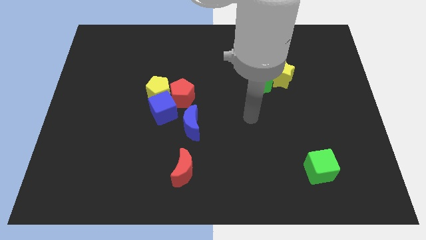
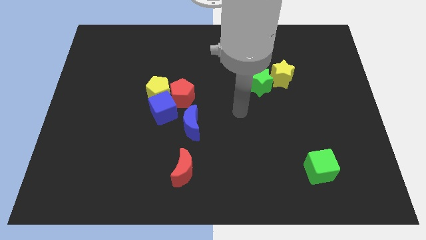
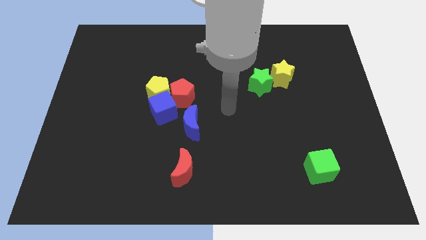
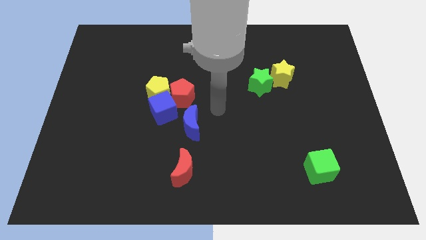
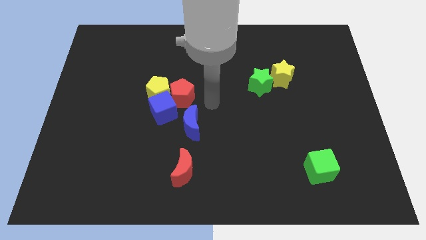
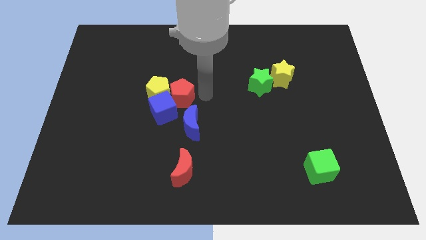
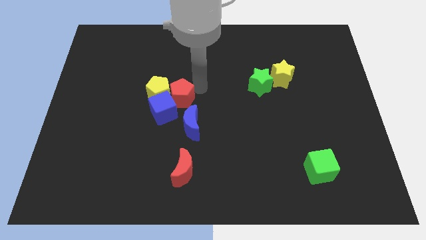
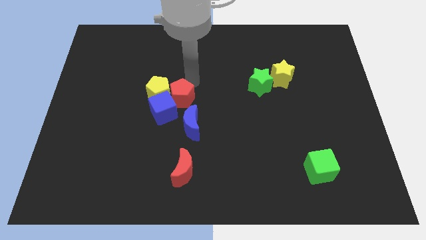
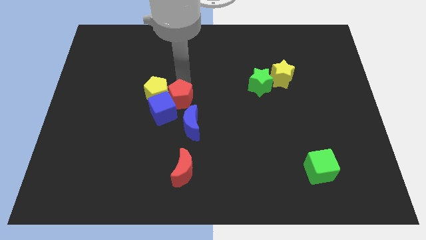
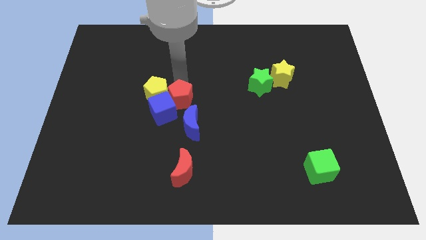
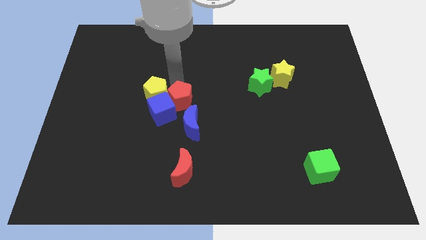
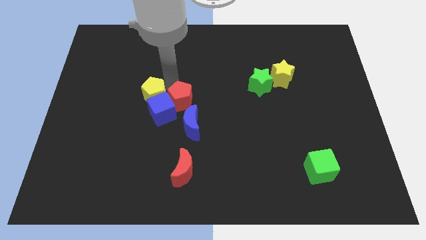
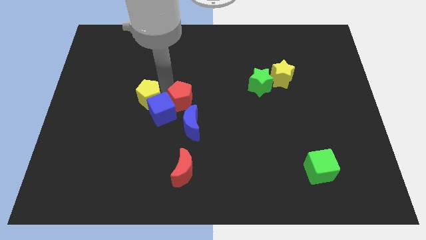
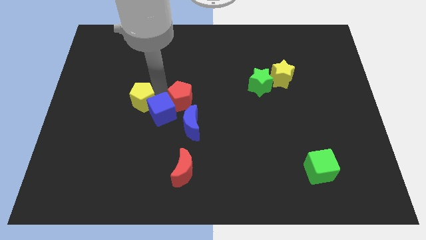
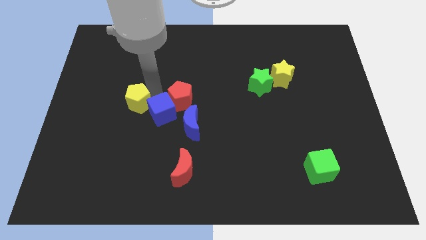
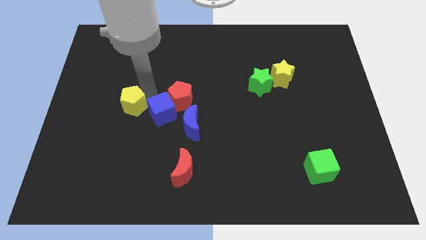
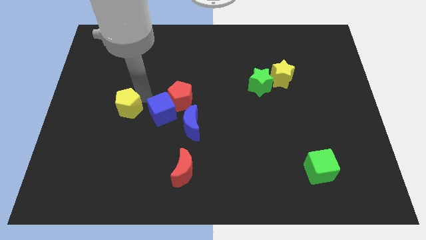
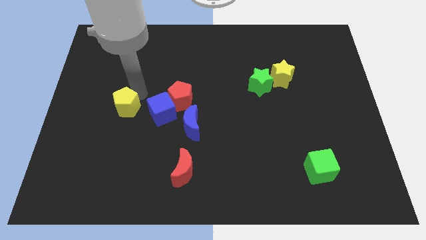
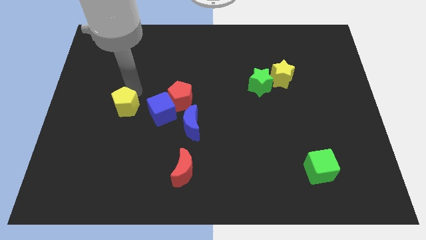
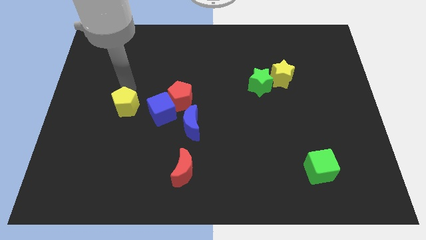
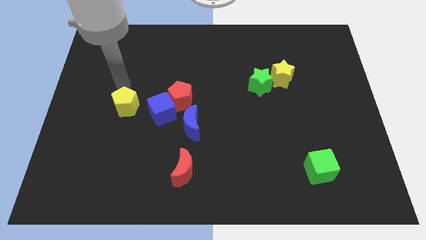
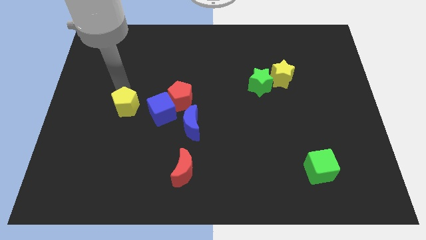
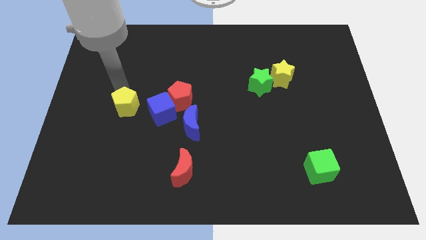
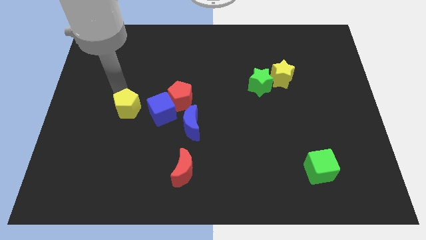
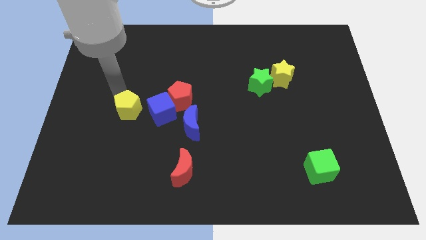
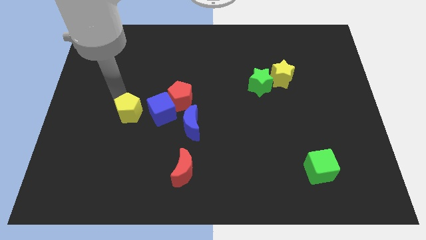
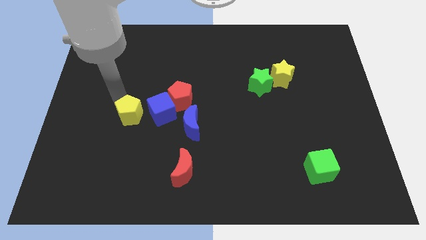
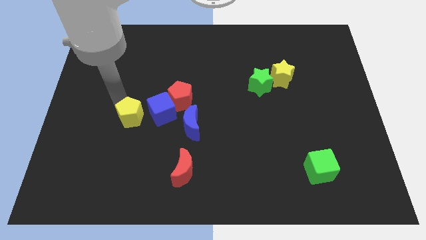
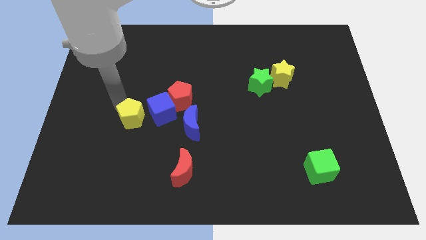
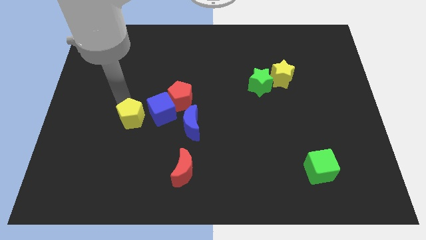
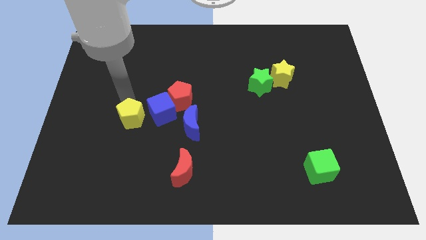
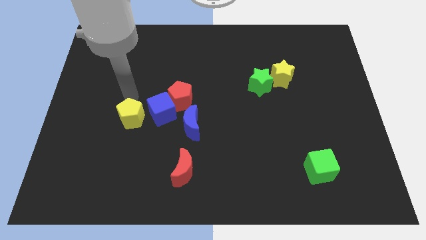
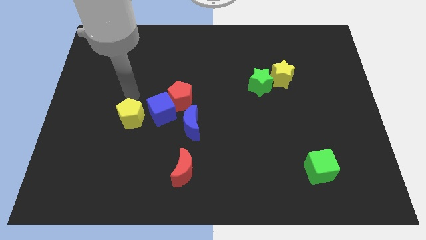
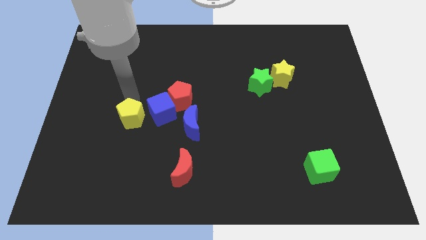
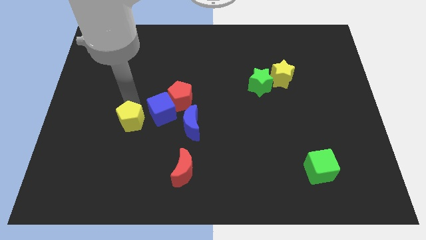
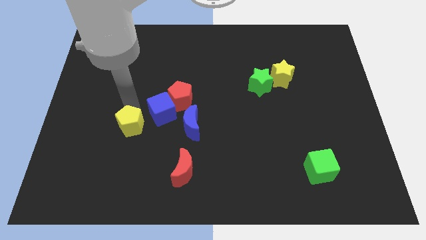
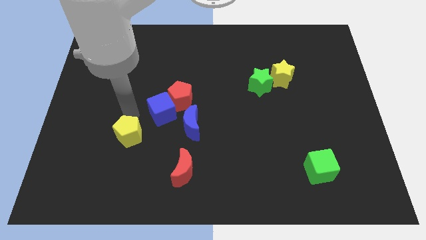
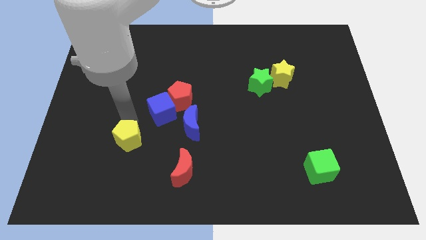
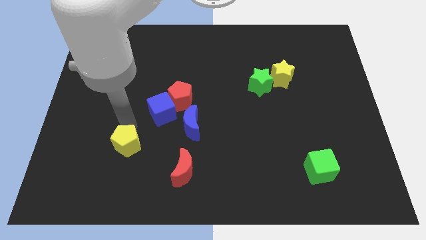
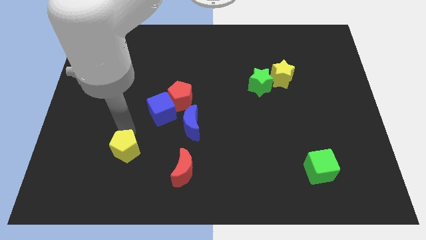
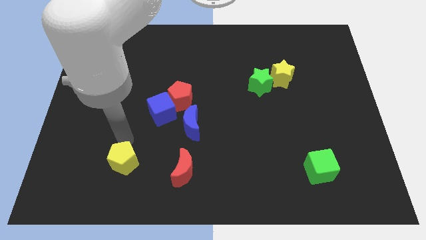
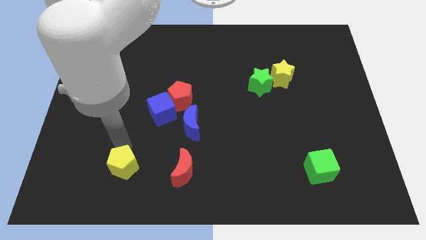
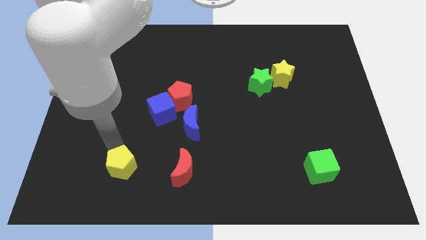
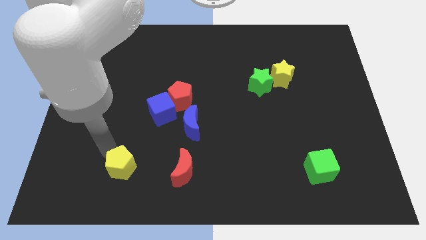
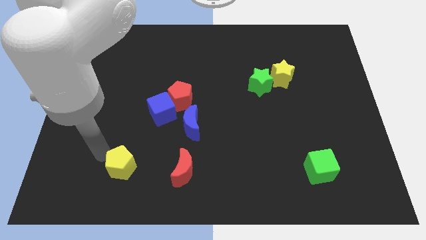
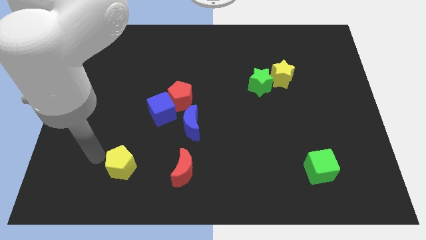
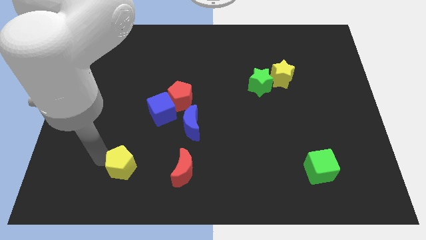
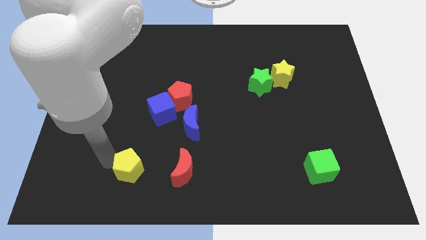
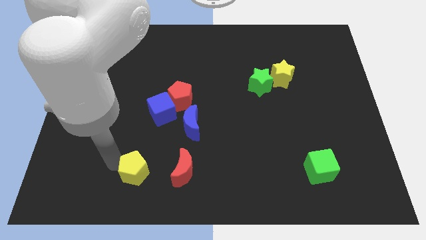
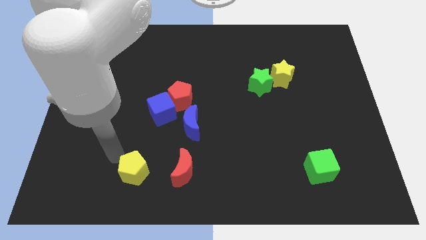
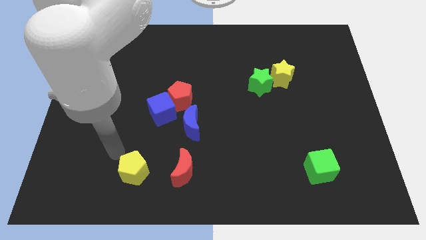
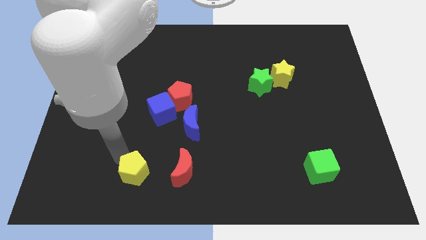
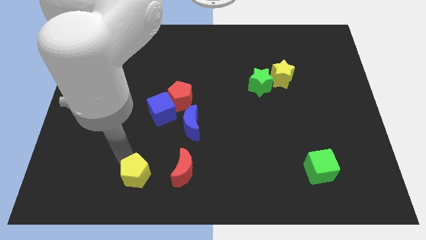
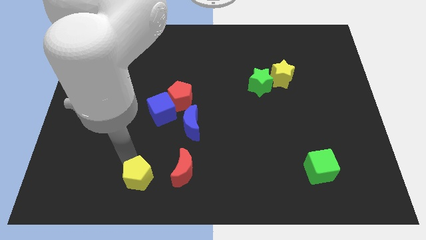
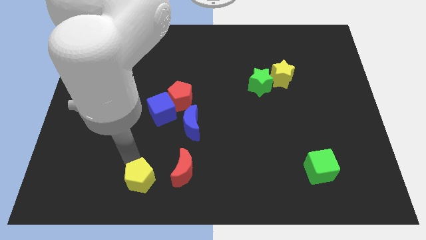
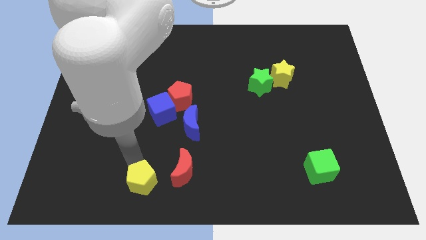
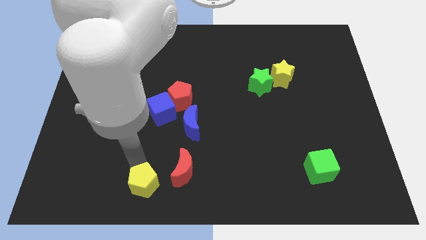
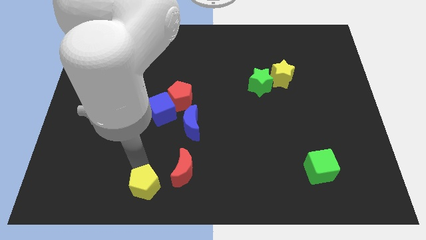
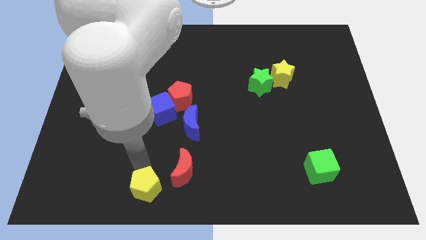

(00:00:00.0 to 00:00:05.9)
push the yellow pentagon to the bottom

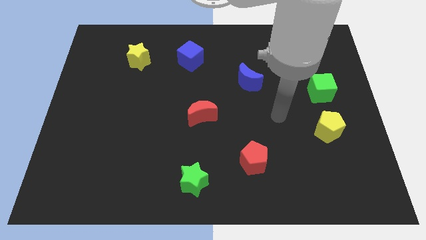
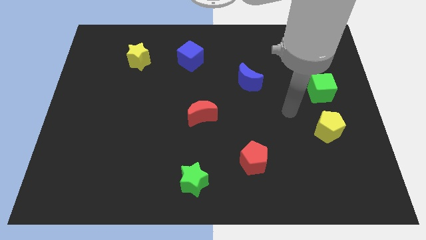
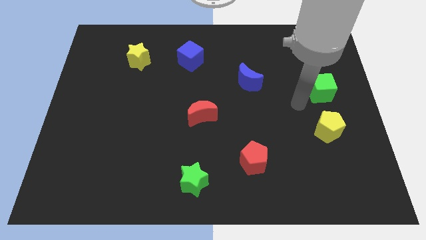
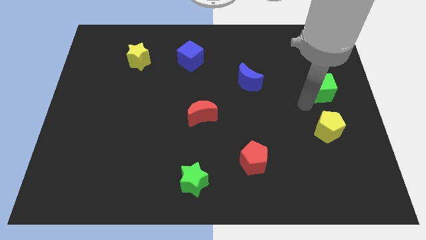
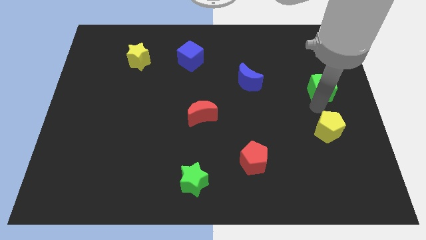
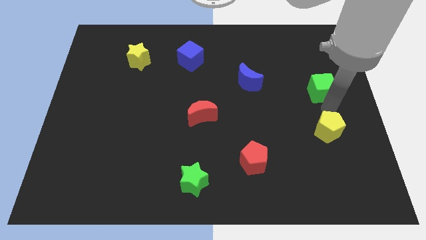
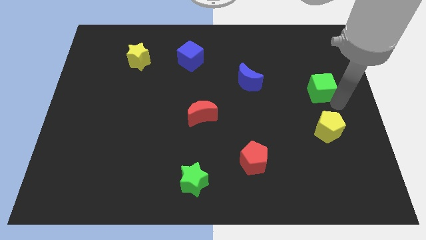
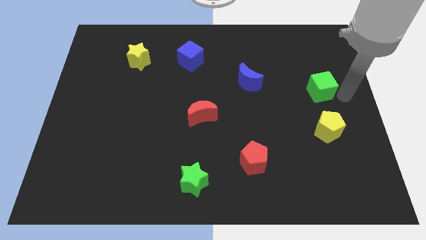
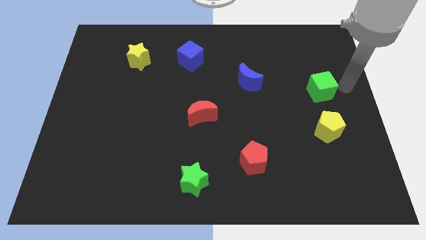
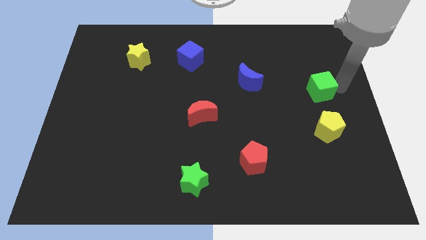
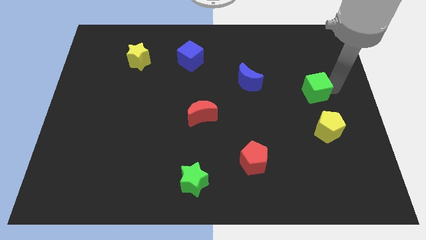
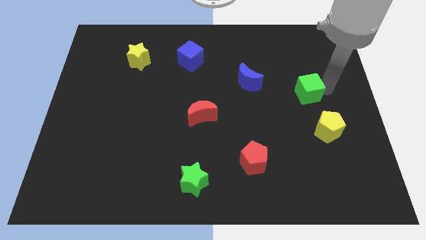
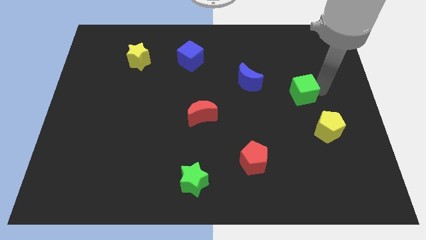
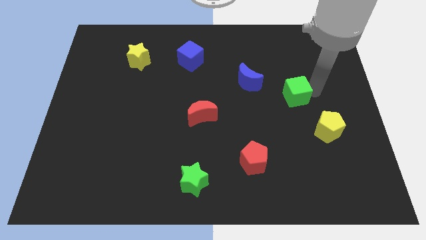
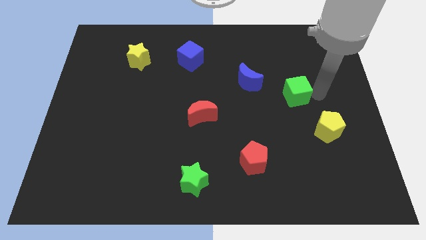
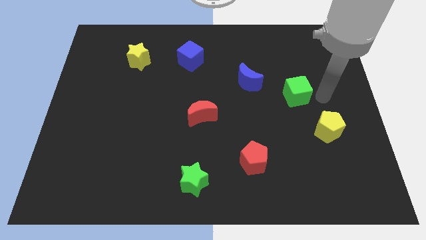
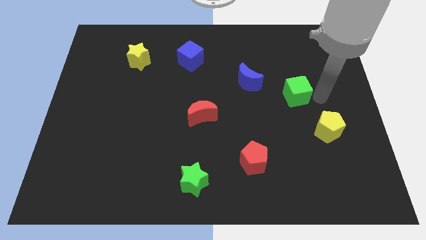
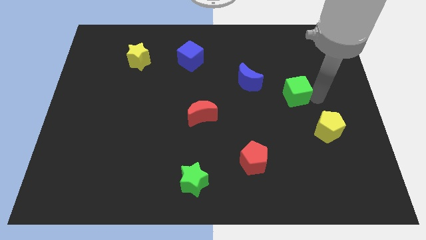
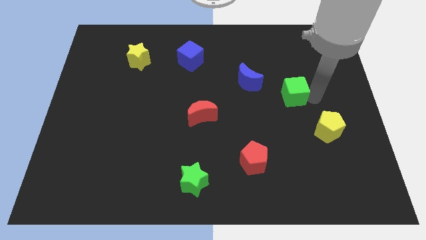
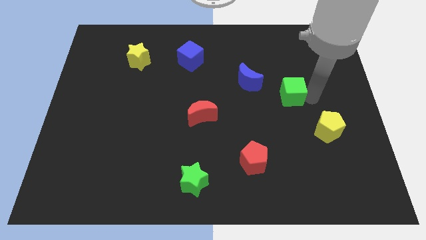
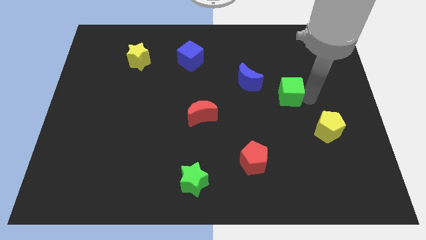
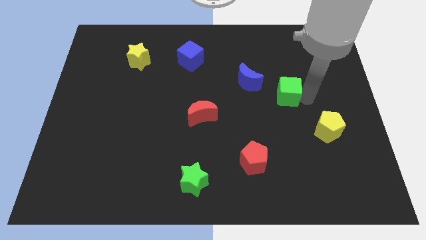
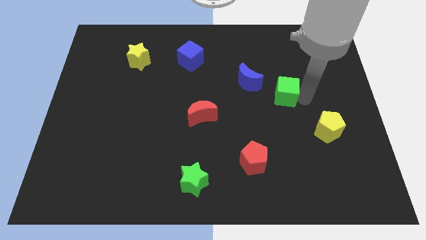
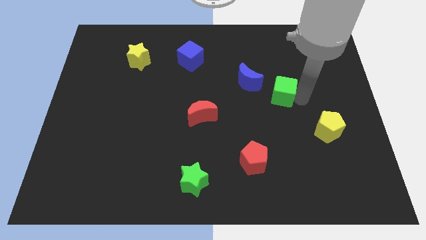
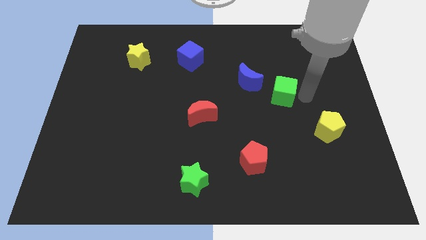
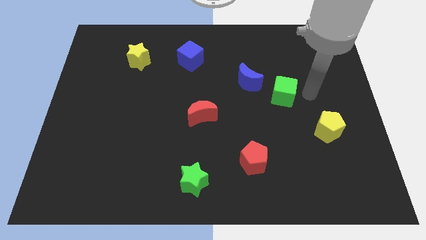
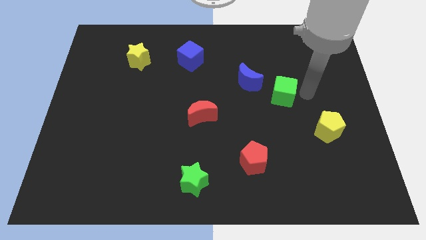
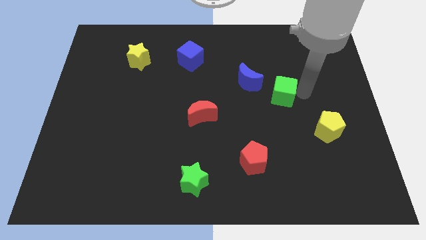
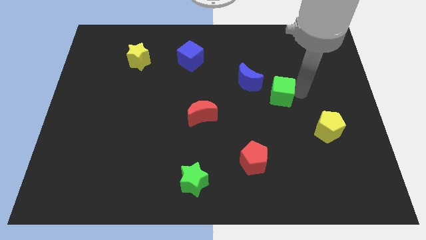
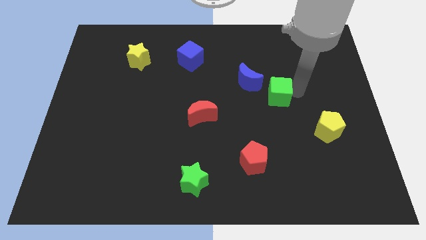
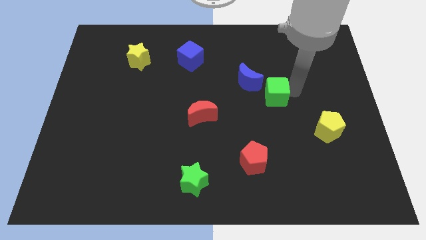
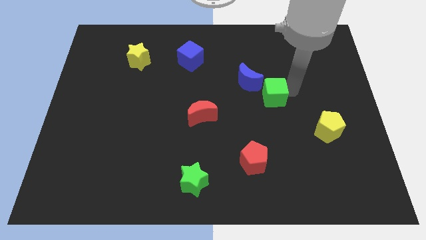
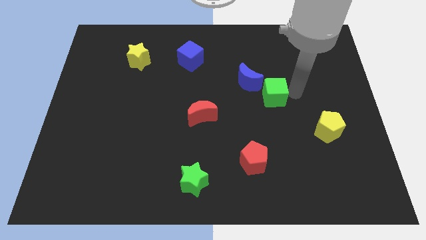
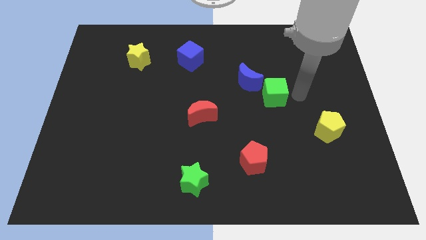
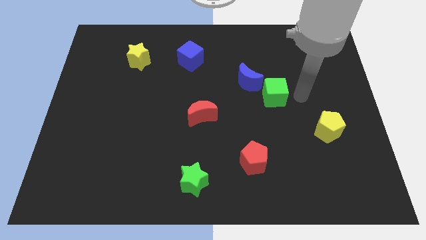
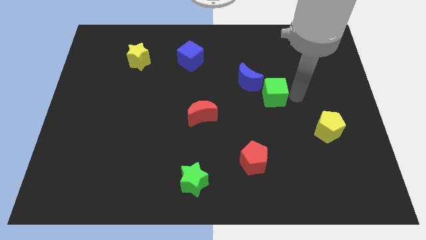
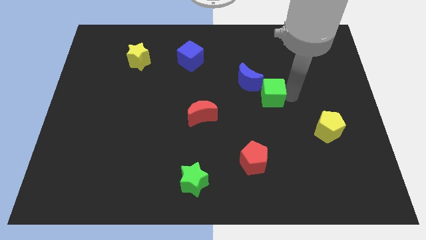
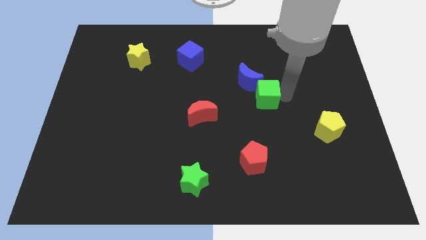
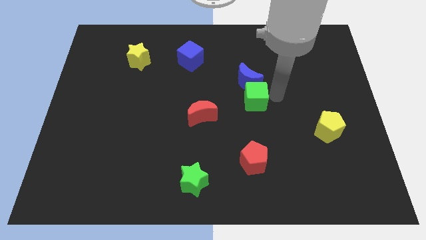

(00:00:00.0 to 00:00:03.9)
slide the green cube to the center of the board
